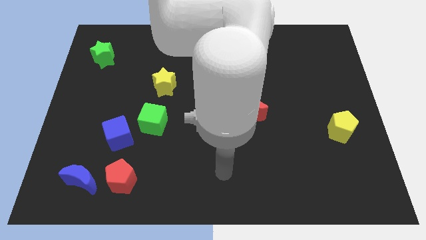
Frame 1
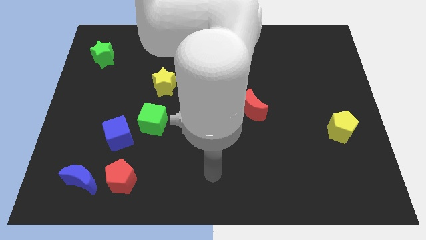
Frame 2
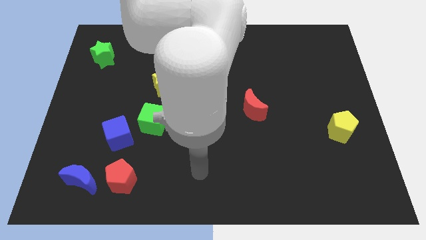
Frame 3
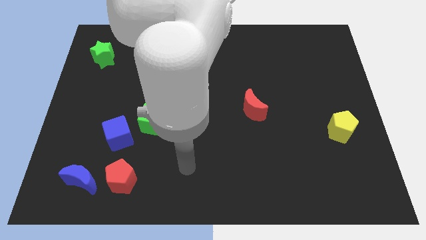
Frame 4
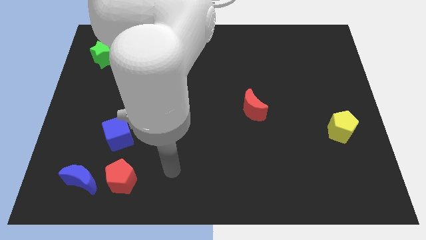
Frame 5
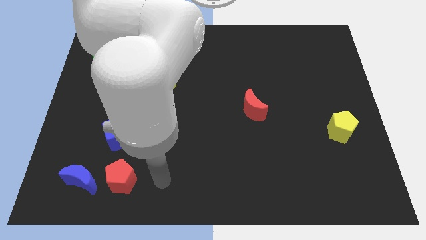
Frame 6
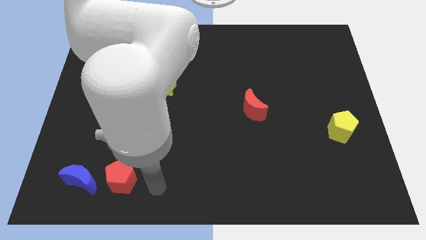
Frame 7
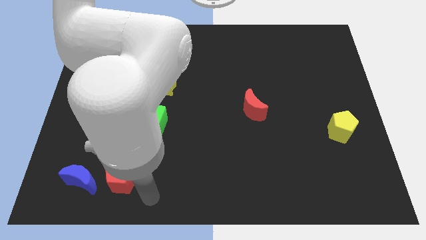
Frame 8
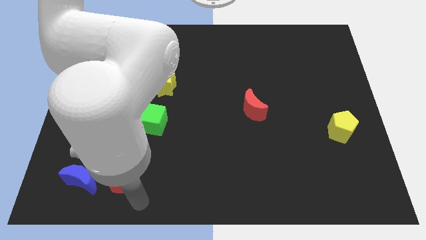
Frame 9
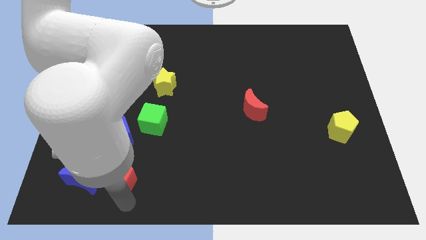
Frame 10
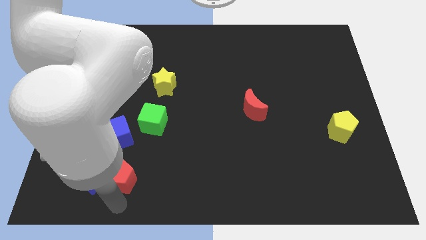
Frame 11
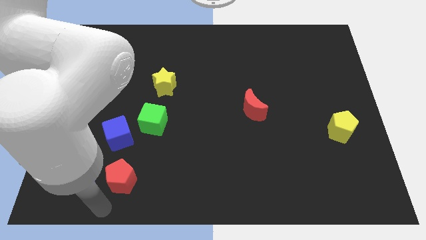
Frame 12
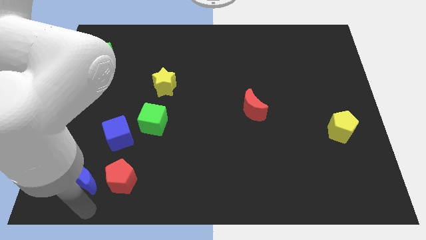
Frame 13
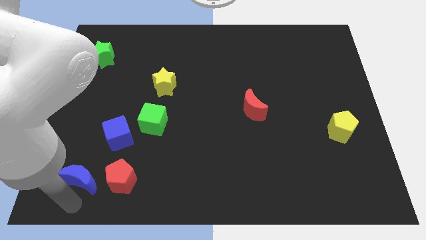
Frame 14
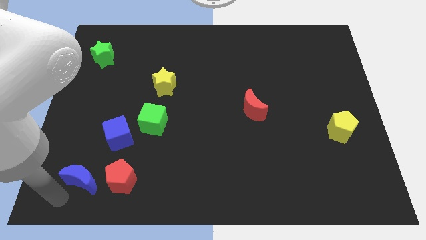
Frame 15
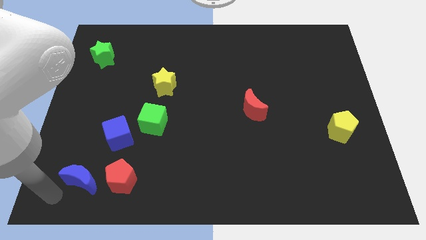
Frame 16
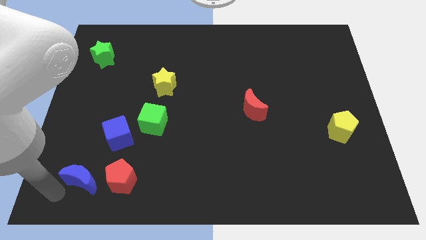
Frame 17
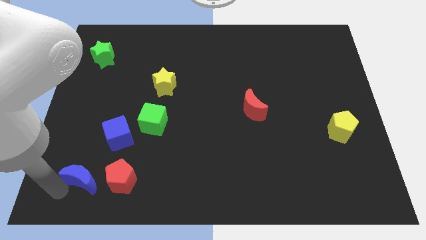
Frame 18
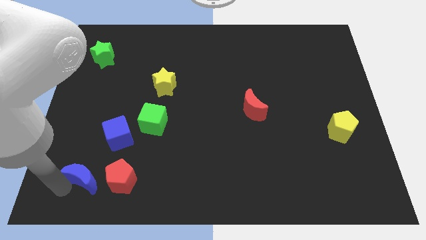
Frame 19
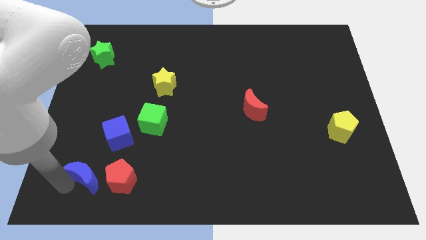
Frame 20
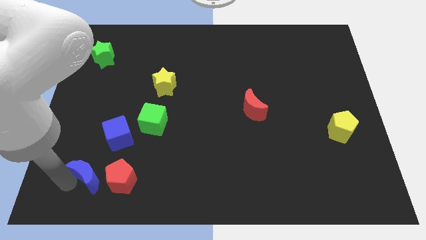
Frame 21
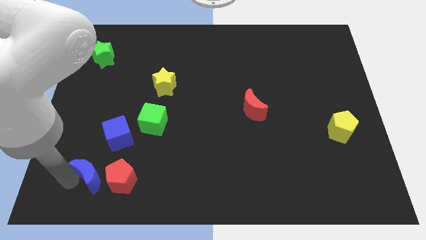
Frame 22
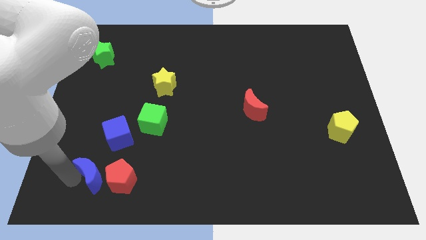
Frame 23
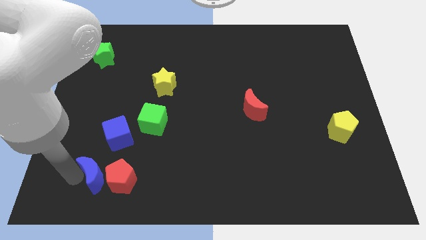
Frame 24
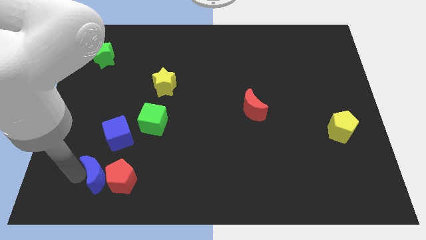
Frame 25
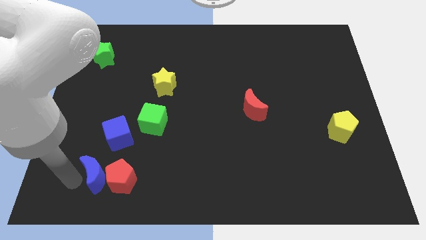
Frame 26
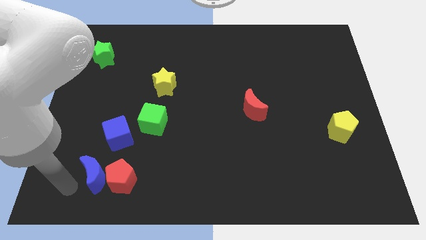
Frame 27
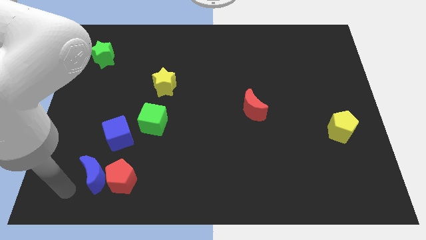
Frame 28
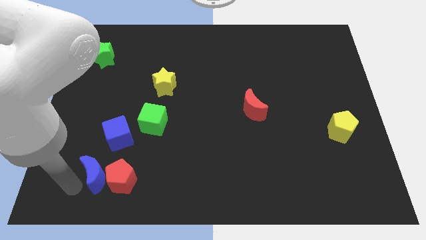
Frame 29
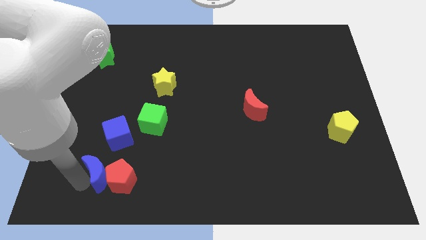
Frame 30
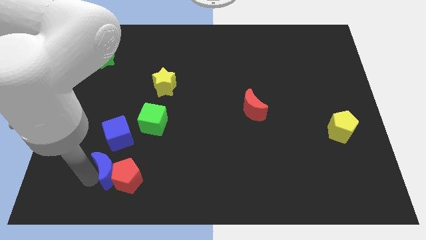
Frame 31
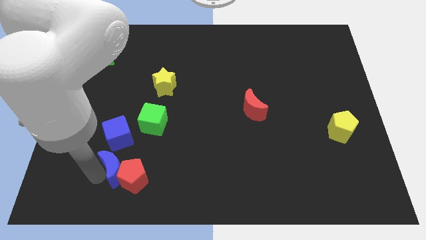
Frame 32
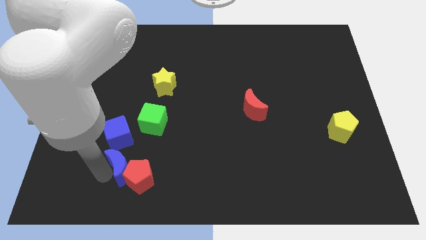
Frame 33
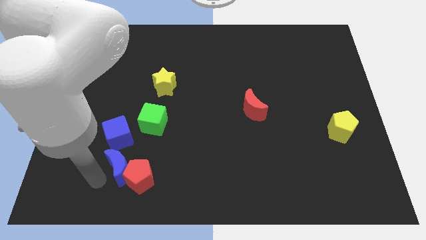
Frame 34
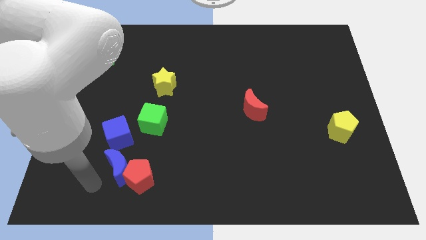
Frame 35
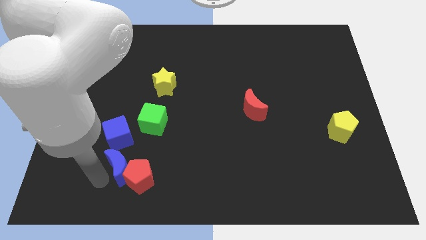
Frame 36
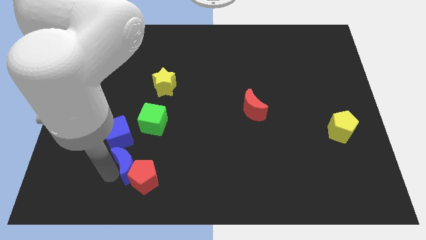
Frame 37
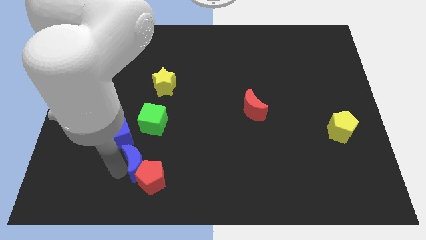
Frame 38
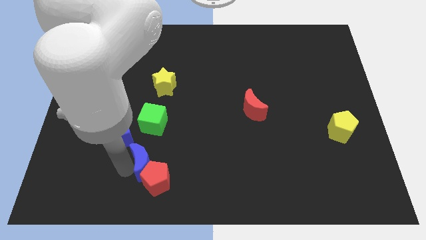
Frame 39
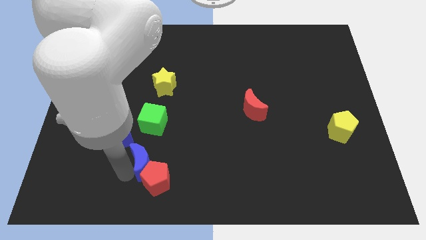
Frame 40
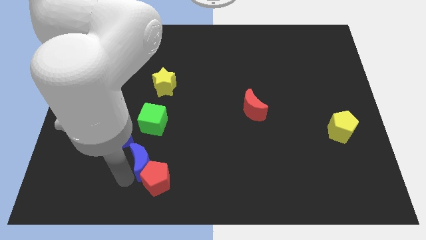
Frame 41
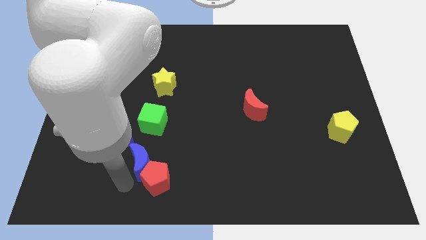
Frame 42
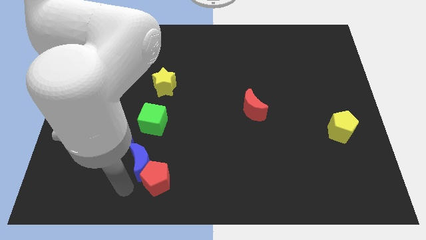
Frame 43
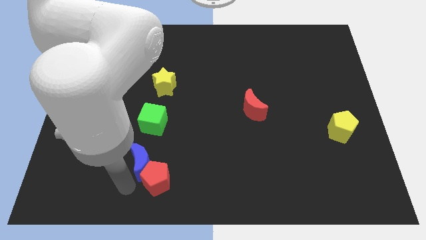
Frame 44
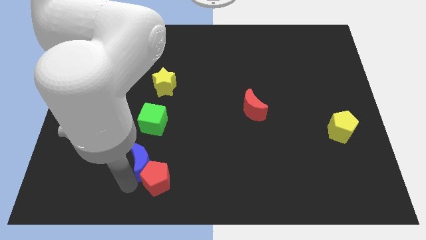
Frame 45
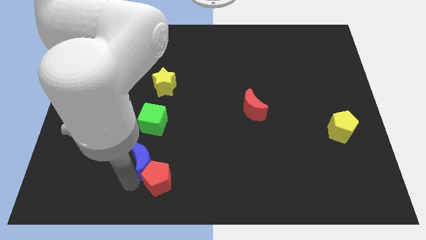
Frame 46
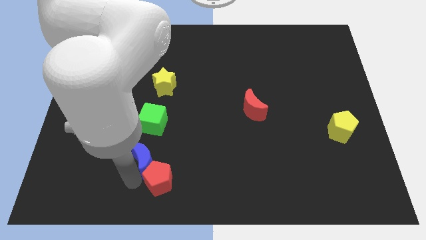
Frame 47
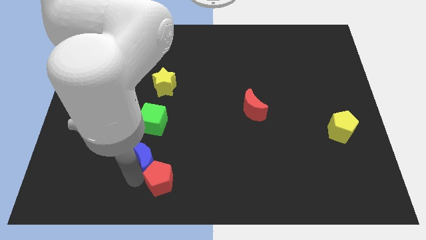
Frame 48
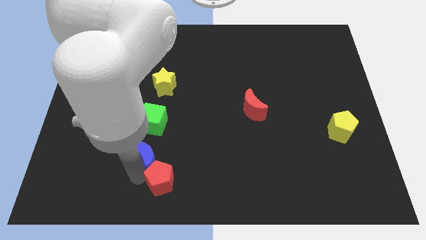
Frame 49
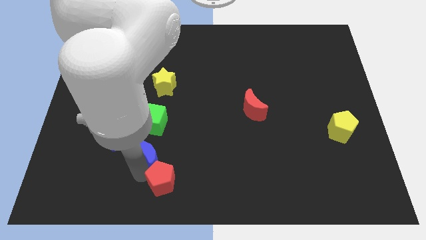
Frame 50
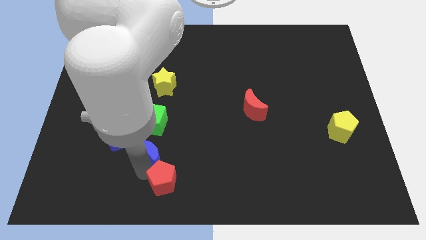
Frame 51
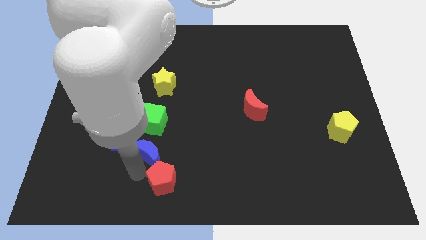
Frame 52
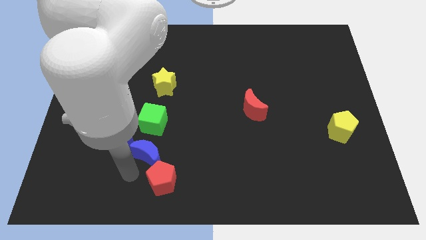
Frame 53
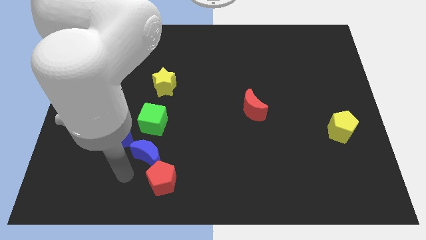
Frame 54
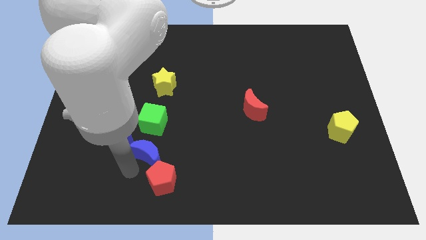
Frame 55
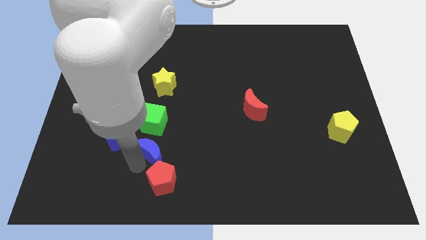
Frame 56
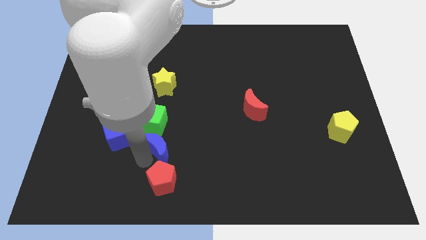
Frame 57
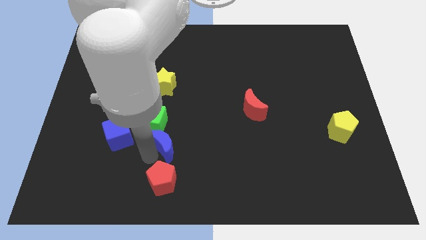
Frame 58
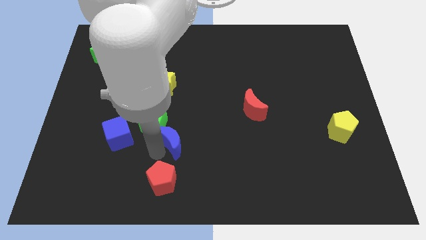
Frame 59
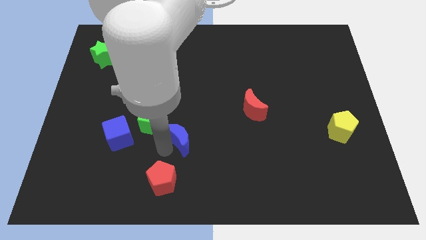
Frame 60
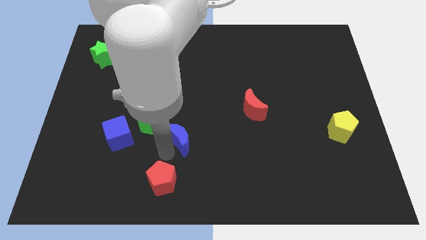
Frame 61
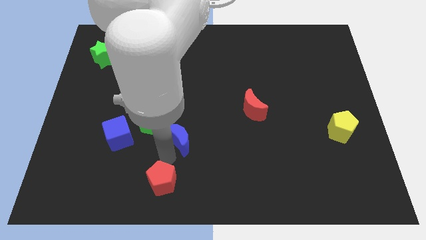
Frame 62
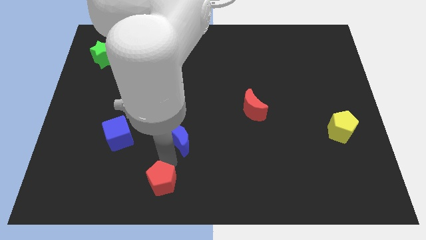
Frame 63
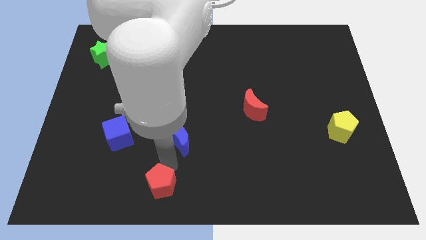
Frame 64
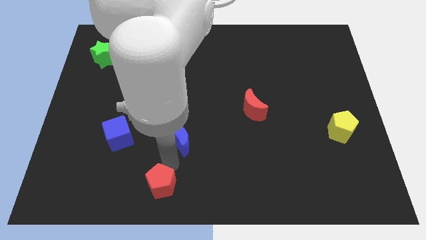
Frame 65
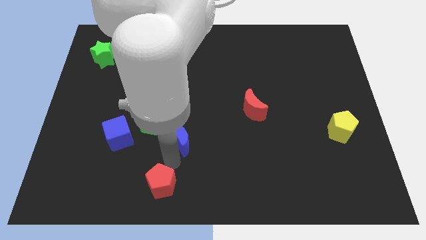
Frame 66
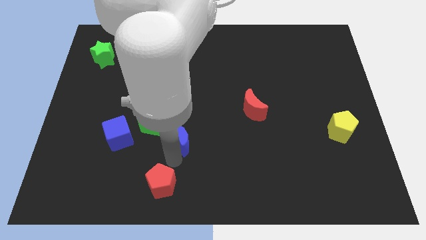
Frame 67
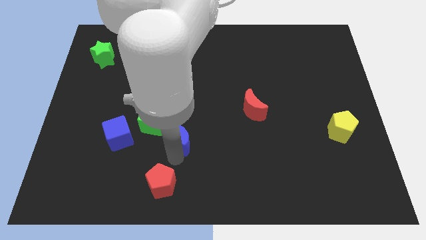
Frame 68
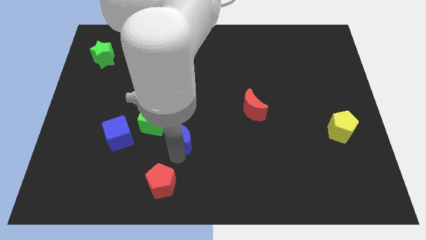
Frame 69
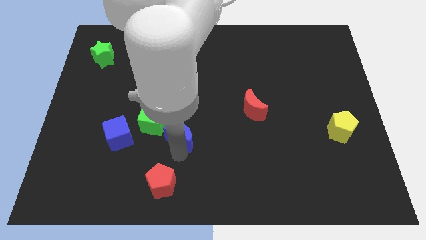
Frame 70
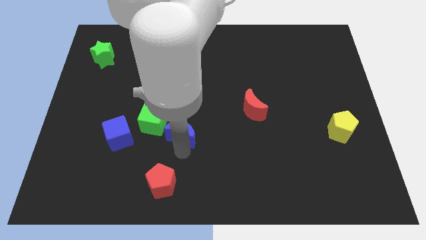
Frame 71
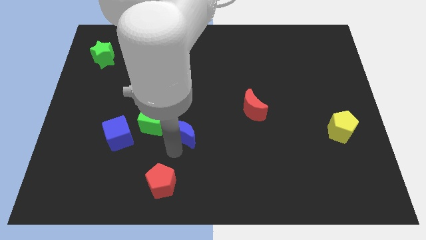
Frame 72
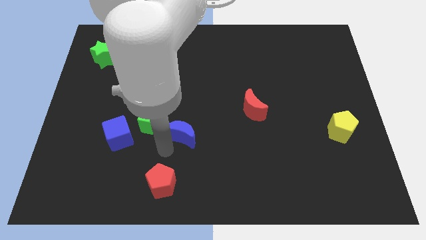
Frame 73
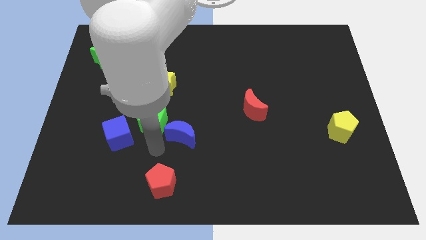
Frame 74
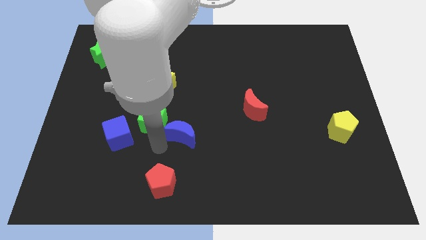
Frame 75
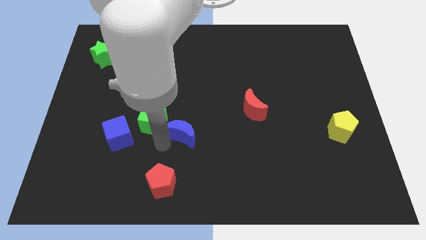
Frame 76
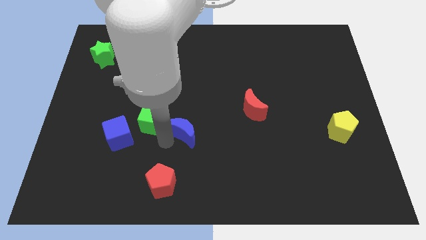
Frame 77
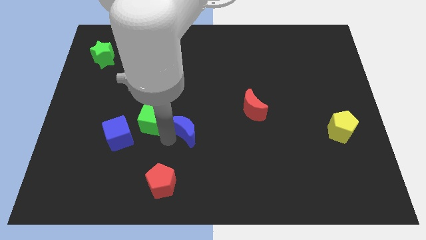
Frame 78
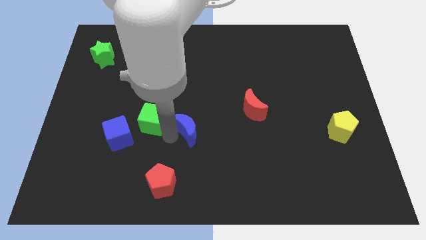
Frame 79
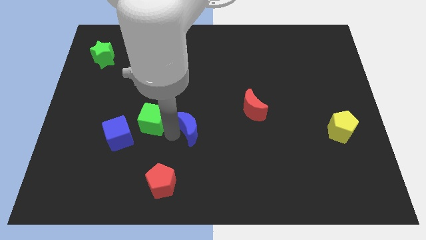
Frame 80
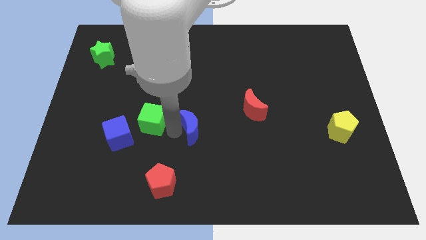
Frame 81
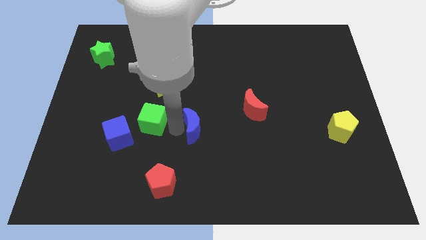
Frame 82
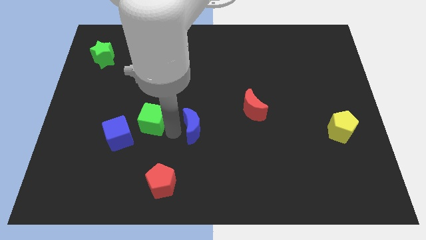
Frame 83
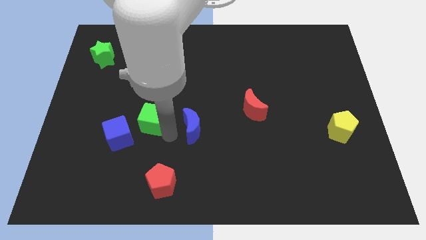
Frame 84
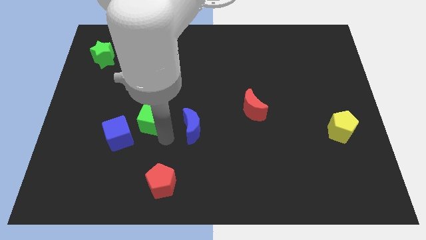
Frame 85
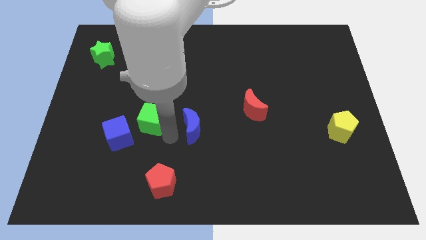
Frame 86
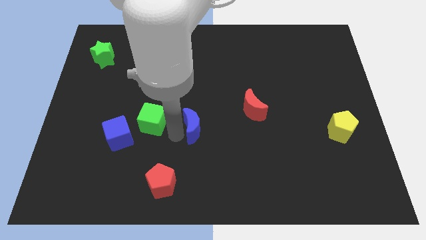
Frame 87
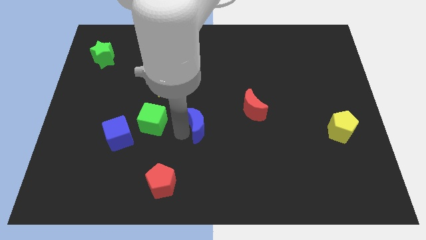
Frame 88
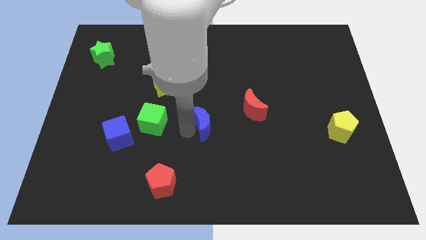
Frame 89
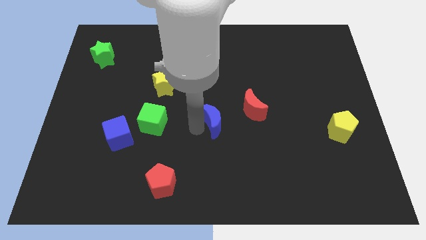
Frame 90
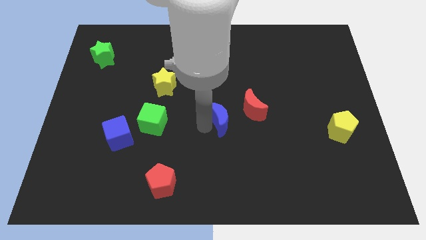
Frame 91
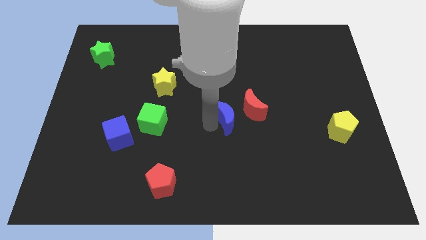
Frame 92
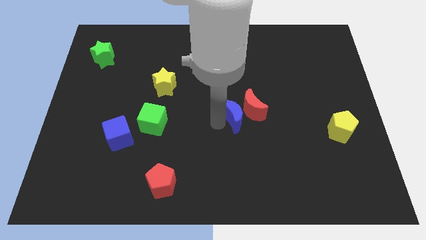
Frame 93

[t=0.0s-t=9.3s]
slide the blue moon towards the red moon
